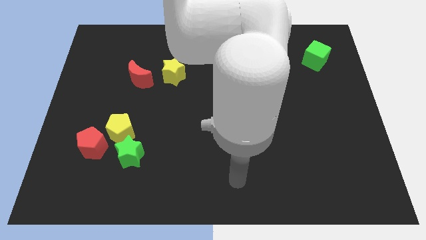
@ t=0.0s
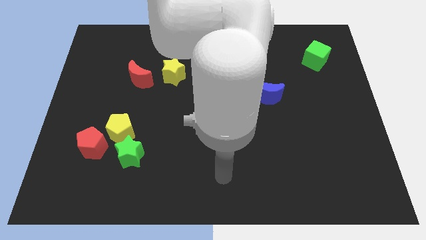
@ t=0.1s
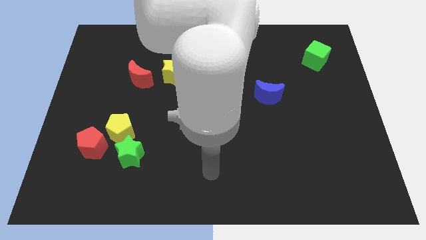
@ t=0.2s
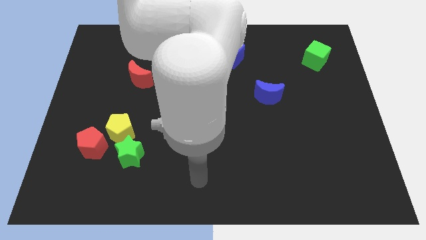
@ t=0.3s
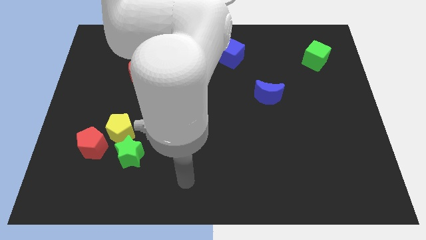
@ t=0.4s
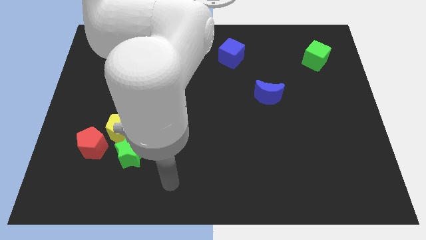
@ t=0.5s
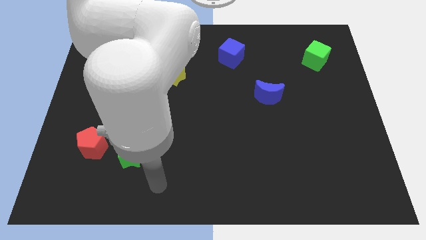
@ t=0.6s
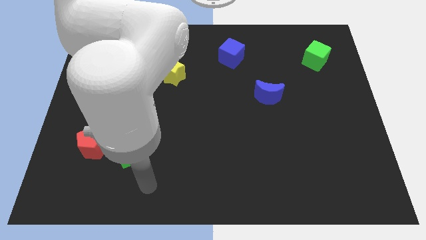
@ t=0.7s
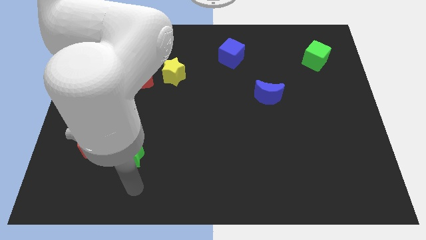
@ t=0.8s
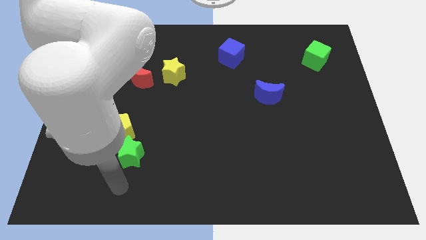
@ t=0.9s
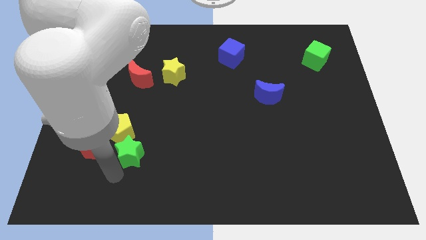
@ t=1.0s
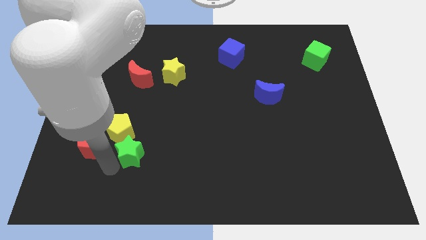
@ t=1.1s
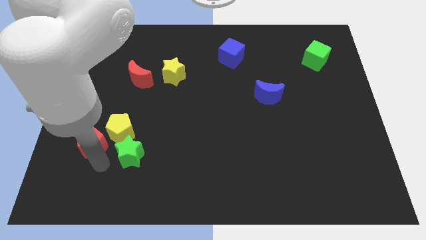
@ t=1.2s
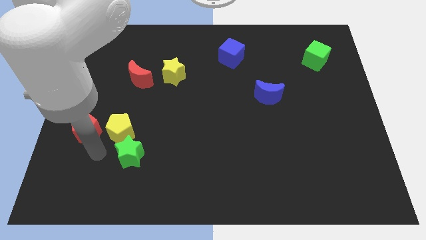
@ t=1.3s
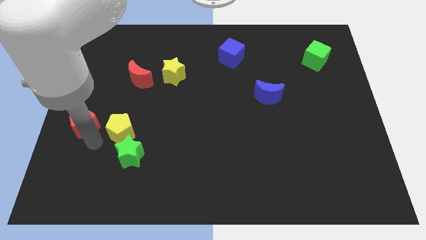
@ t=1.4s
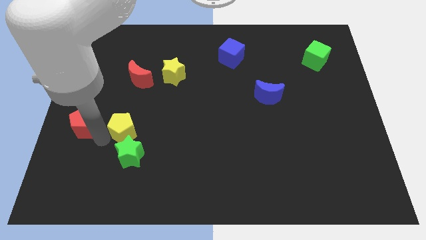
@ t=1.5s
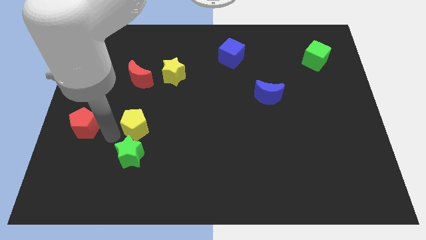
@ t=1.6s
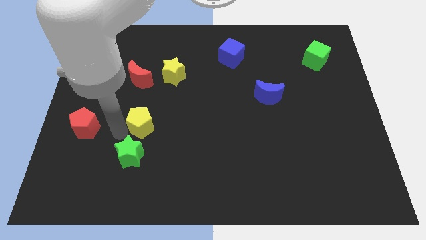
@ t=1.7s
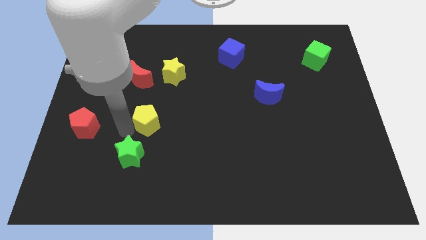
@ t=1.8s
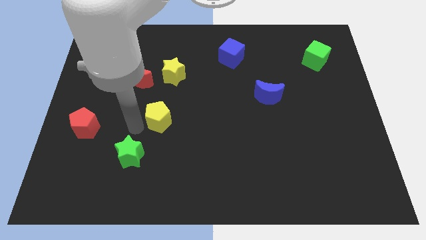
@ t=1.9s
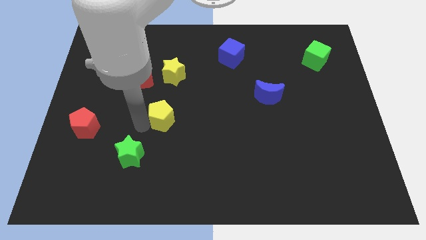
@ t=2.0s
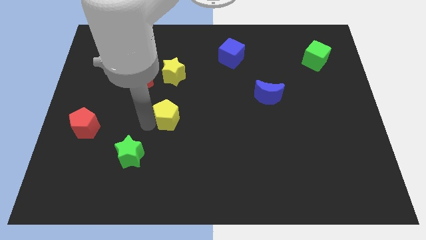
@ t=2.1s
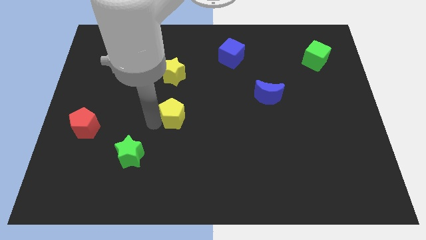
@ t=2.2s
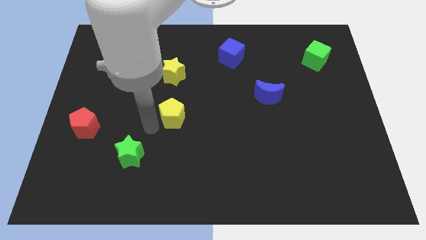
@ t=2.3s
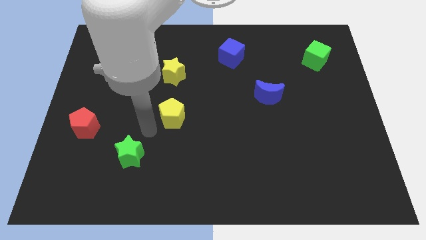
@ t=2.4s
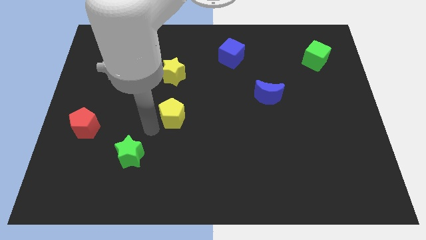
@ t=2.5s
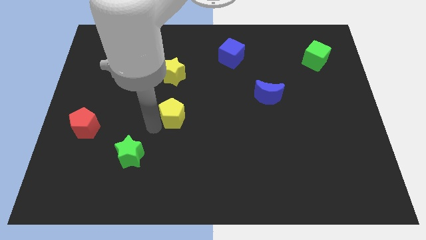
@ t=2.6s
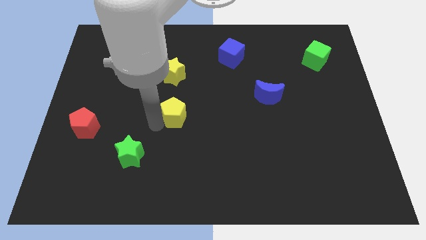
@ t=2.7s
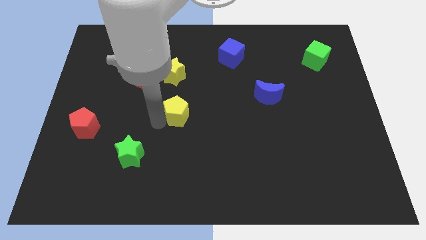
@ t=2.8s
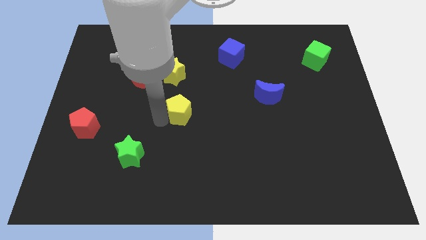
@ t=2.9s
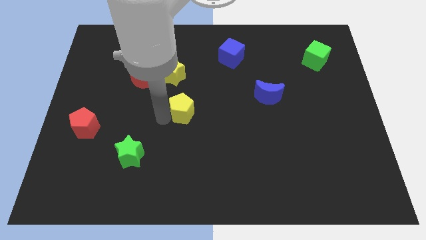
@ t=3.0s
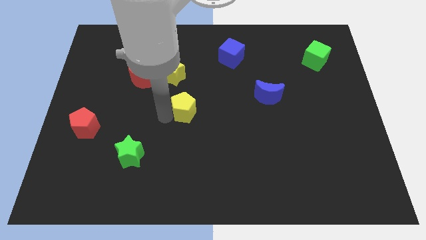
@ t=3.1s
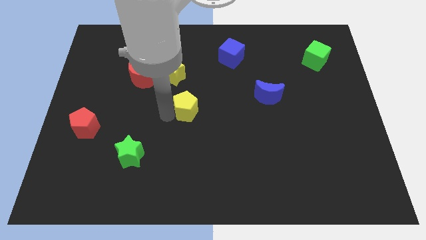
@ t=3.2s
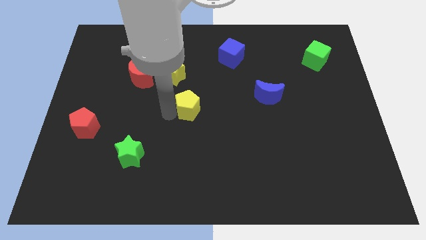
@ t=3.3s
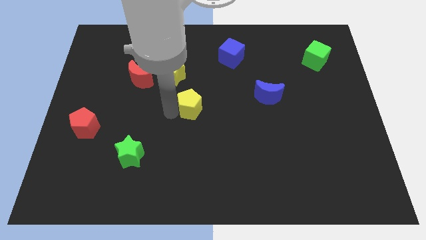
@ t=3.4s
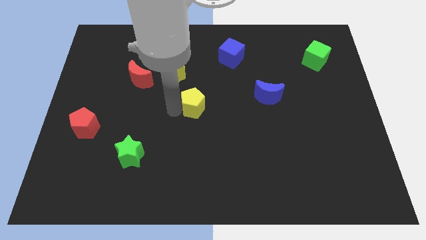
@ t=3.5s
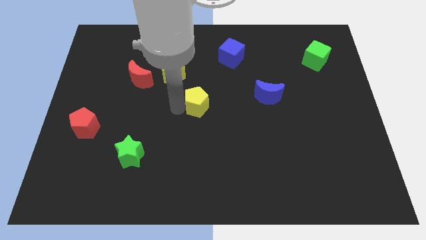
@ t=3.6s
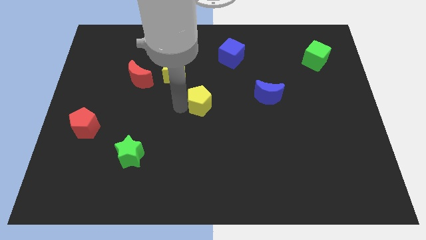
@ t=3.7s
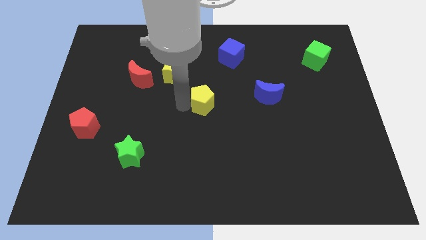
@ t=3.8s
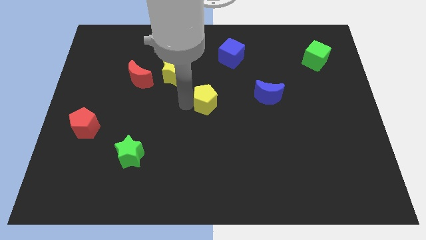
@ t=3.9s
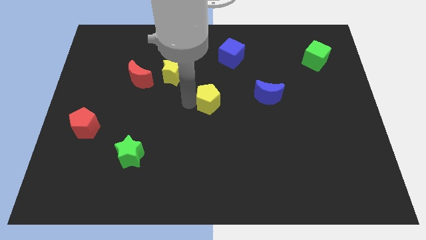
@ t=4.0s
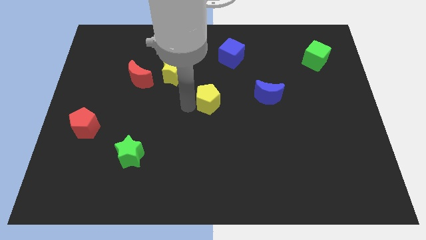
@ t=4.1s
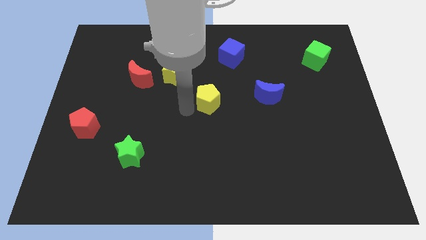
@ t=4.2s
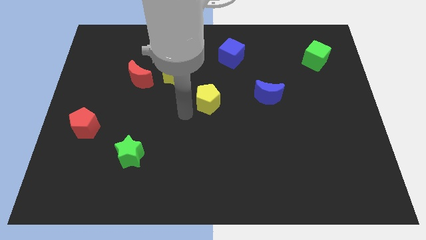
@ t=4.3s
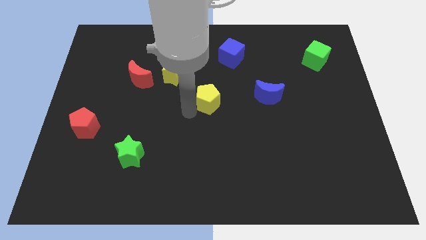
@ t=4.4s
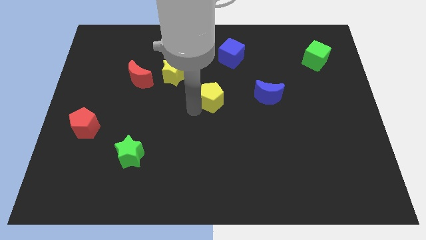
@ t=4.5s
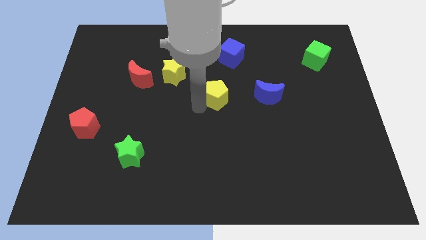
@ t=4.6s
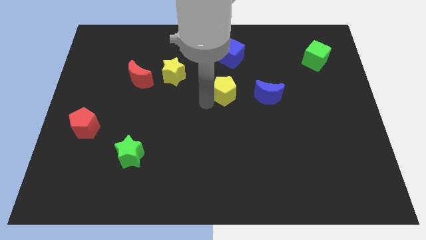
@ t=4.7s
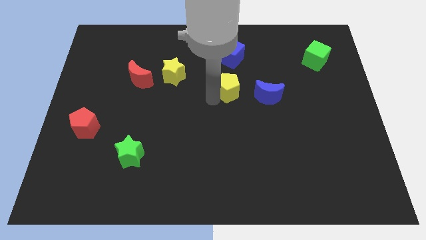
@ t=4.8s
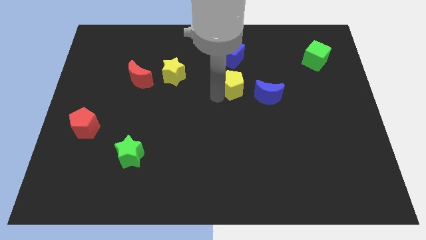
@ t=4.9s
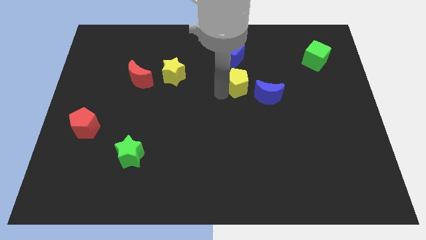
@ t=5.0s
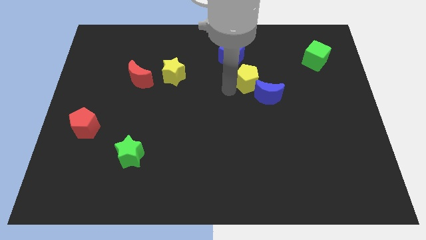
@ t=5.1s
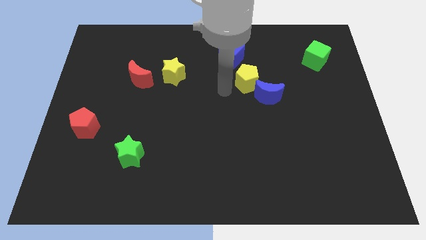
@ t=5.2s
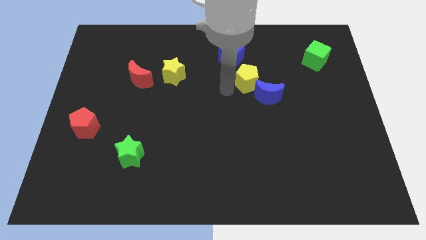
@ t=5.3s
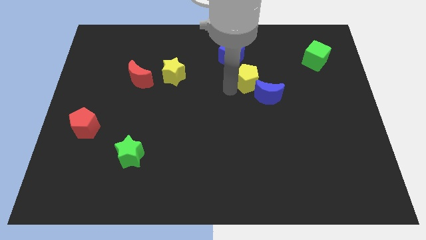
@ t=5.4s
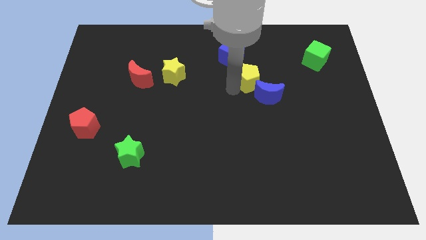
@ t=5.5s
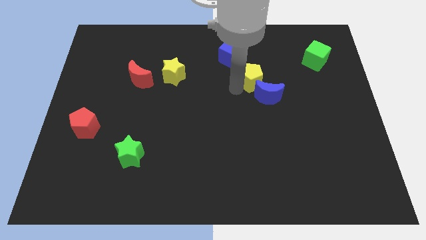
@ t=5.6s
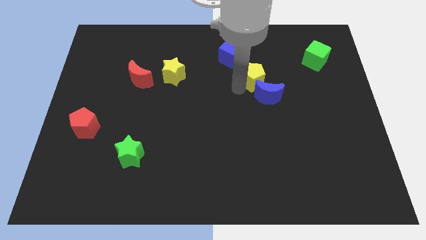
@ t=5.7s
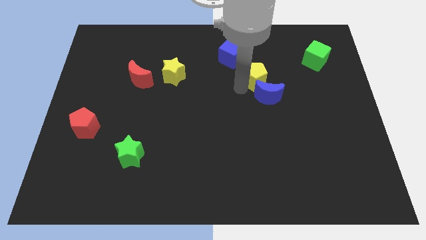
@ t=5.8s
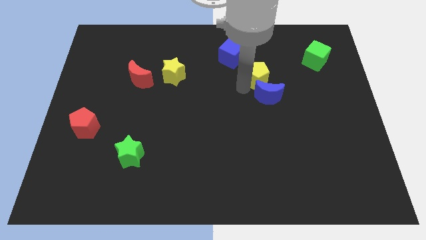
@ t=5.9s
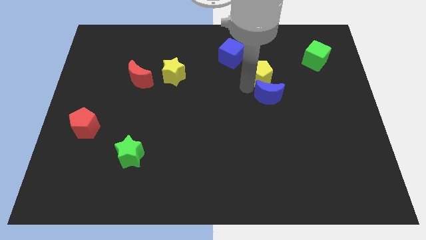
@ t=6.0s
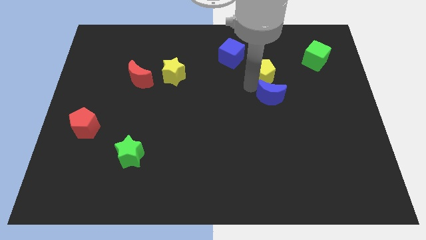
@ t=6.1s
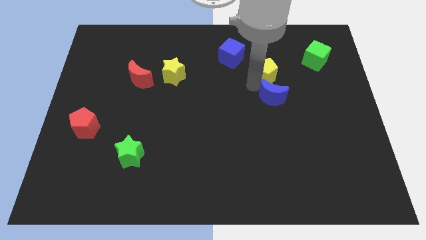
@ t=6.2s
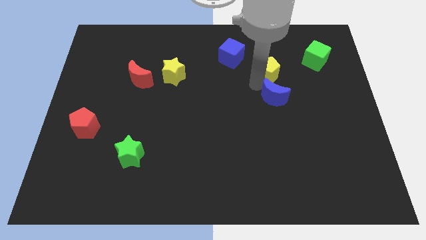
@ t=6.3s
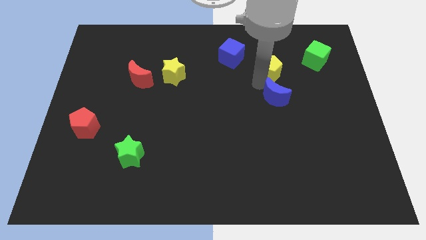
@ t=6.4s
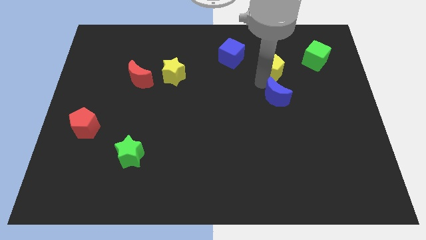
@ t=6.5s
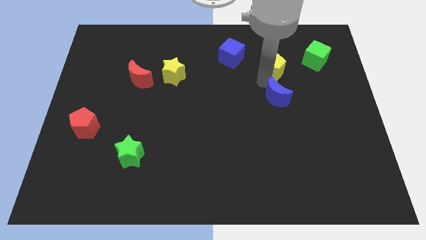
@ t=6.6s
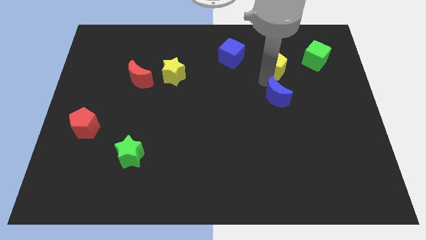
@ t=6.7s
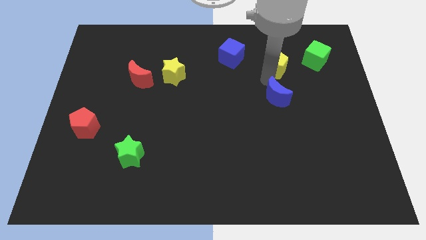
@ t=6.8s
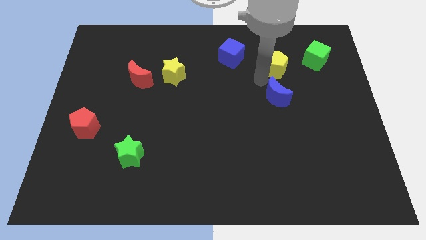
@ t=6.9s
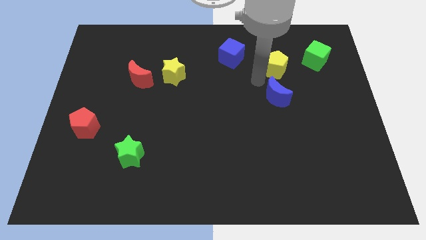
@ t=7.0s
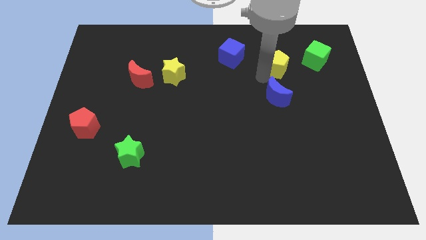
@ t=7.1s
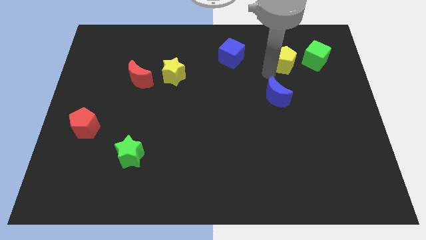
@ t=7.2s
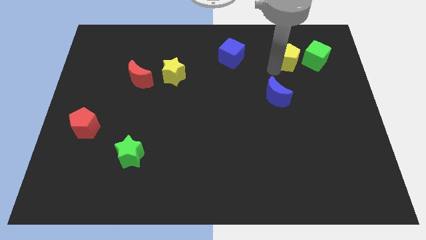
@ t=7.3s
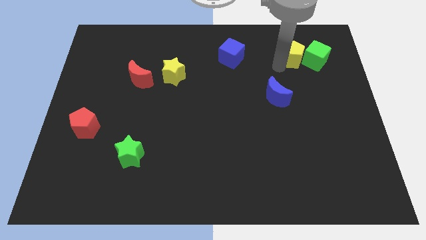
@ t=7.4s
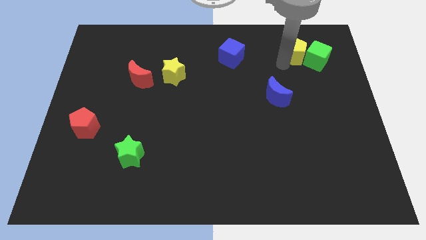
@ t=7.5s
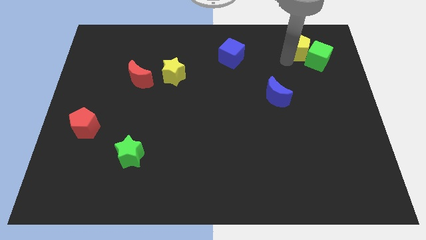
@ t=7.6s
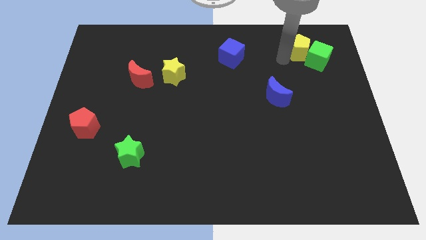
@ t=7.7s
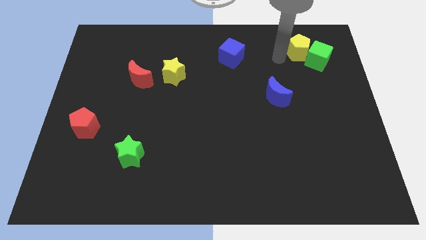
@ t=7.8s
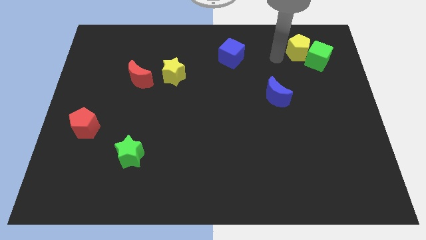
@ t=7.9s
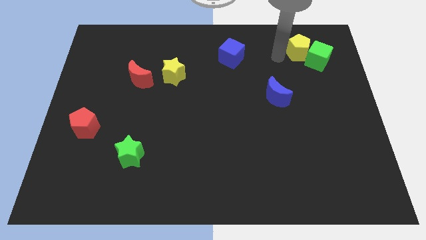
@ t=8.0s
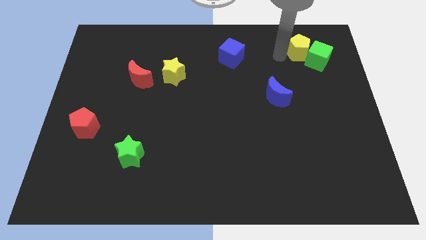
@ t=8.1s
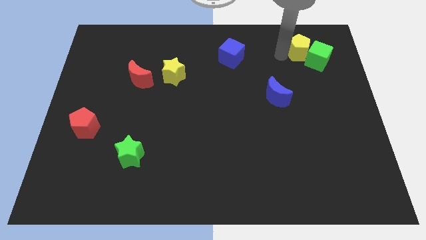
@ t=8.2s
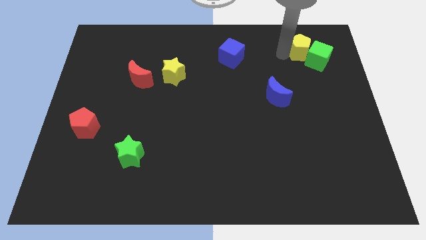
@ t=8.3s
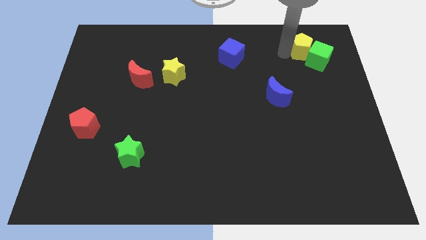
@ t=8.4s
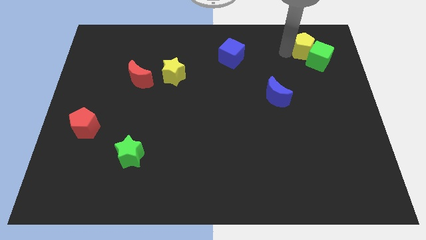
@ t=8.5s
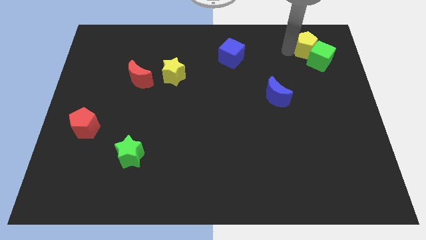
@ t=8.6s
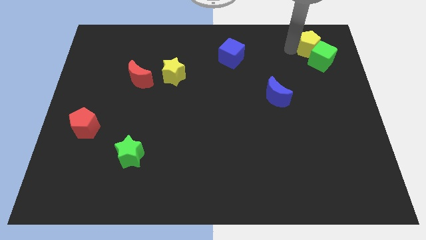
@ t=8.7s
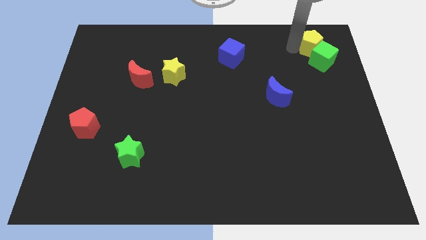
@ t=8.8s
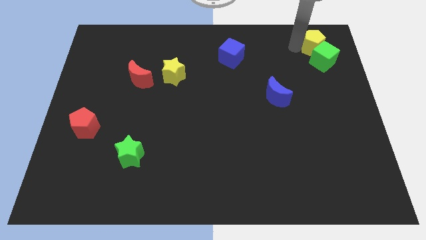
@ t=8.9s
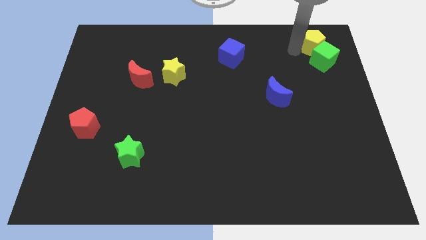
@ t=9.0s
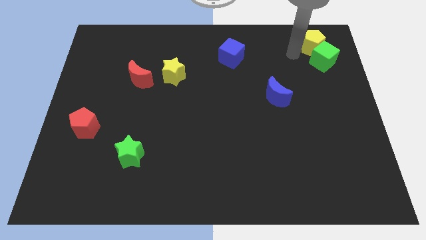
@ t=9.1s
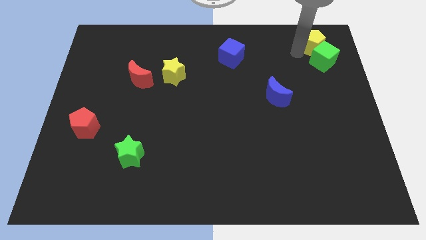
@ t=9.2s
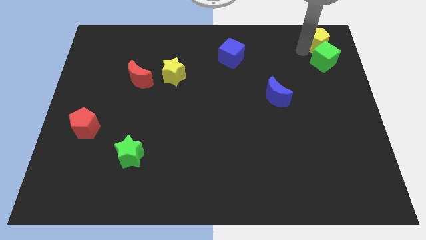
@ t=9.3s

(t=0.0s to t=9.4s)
slide the yellow pentagon to the top right corner
